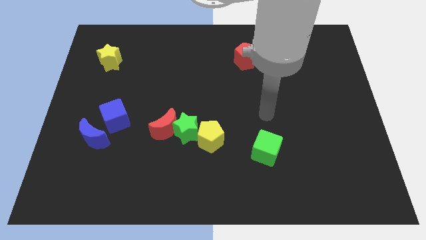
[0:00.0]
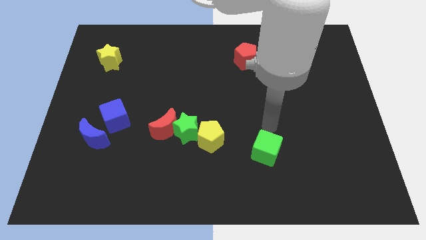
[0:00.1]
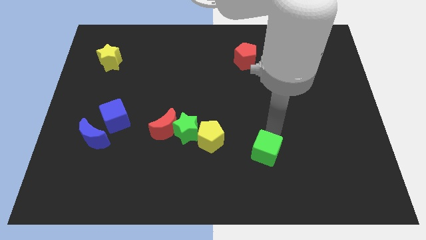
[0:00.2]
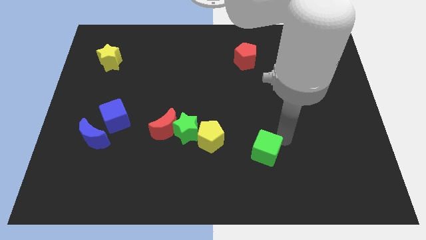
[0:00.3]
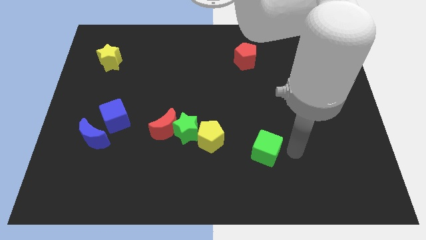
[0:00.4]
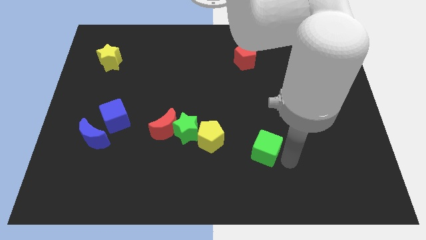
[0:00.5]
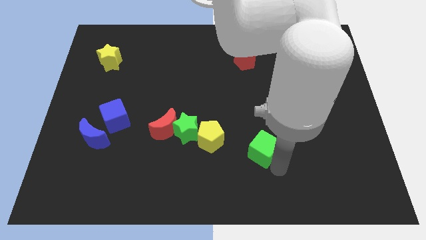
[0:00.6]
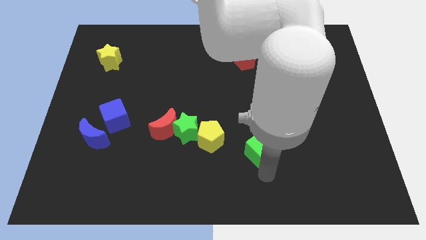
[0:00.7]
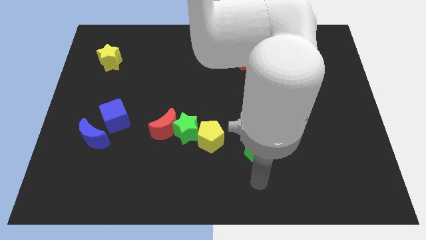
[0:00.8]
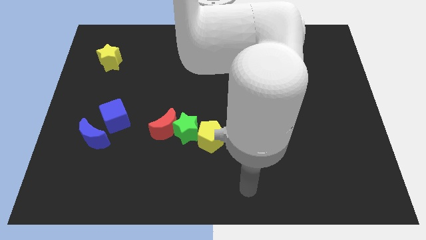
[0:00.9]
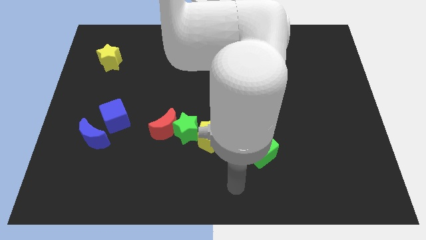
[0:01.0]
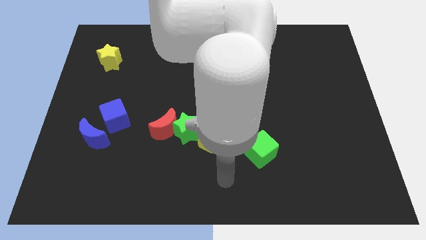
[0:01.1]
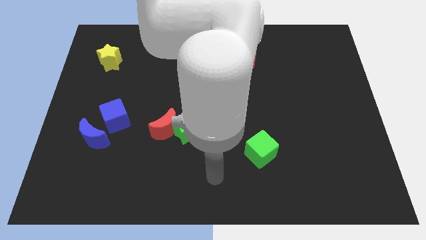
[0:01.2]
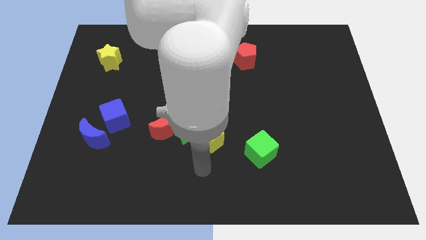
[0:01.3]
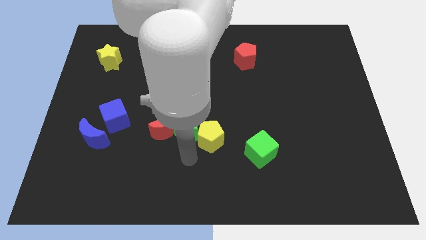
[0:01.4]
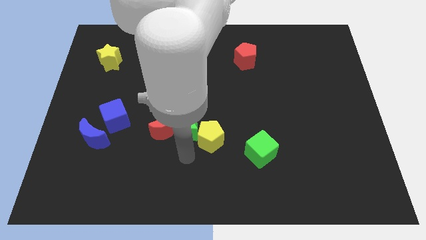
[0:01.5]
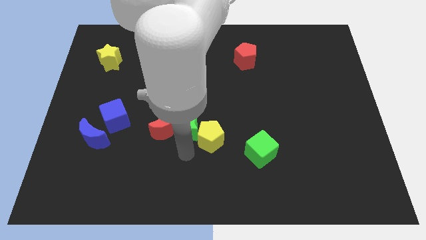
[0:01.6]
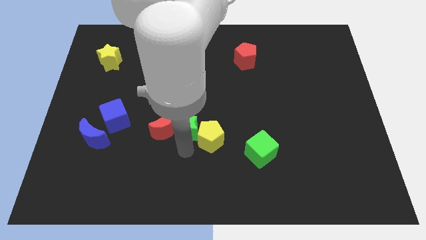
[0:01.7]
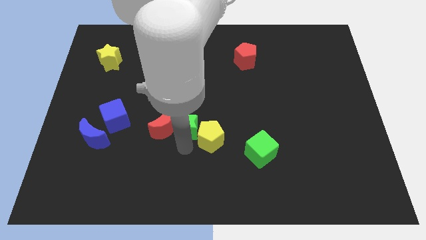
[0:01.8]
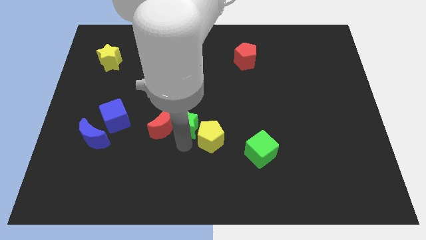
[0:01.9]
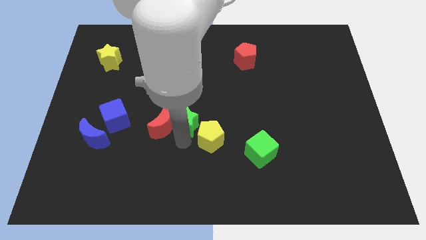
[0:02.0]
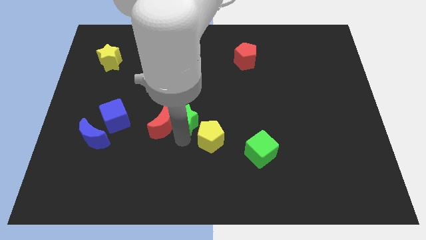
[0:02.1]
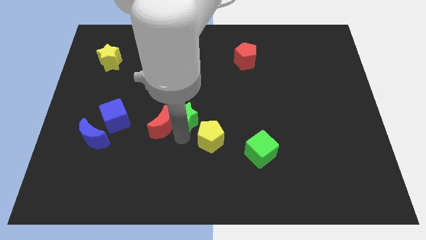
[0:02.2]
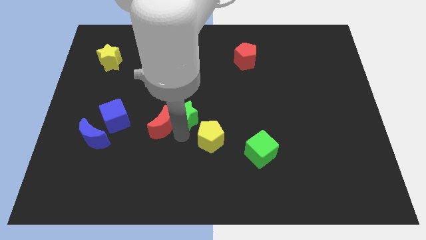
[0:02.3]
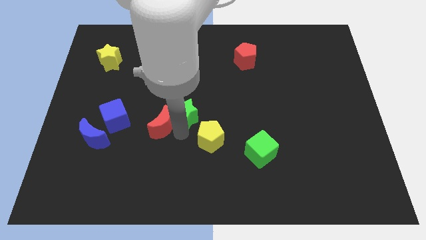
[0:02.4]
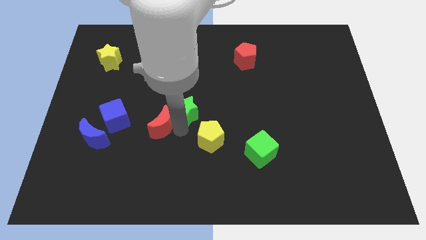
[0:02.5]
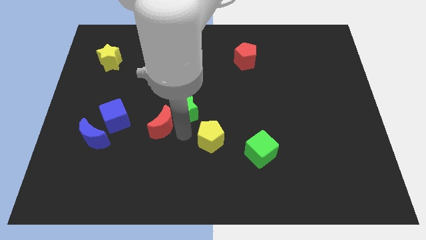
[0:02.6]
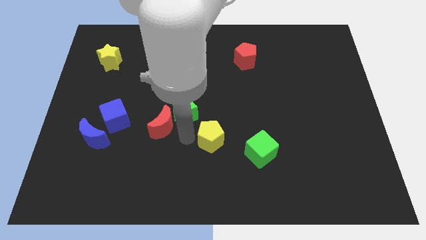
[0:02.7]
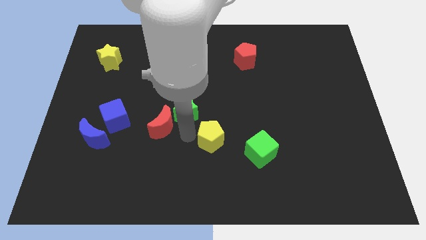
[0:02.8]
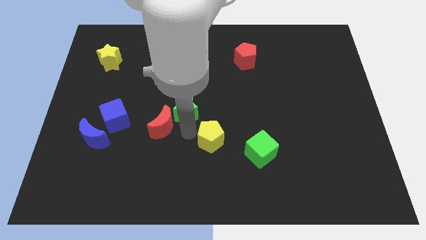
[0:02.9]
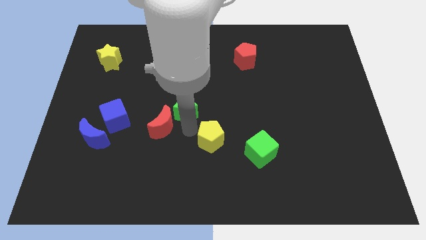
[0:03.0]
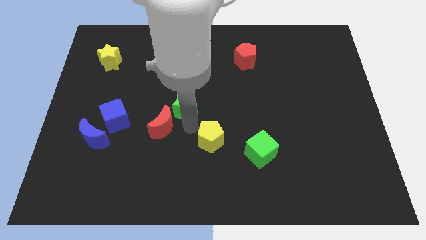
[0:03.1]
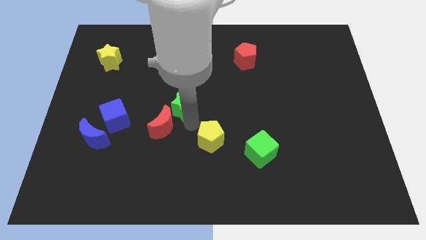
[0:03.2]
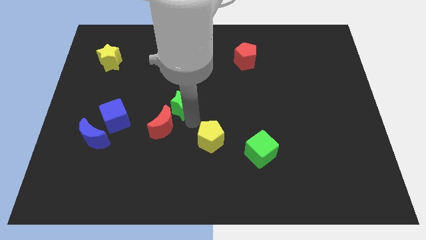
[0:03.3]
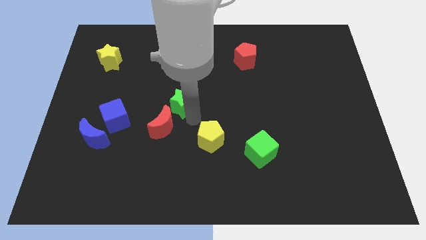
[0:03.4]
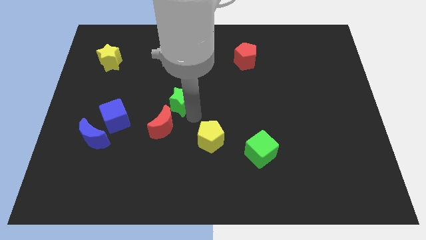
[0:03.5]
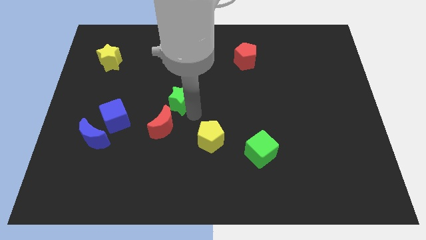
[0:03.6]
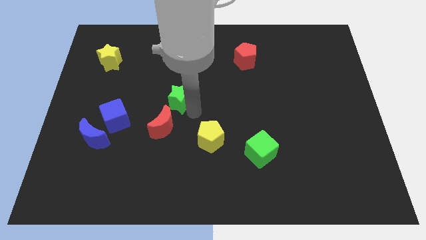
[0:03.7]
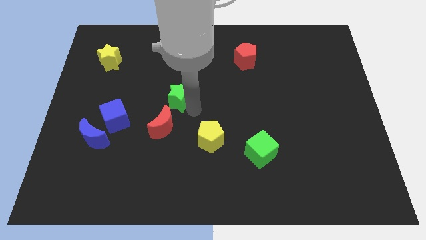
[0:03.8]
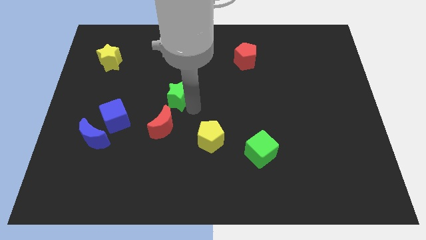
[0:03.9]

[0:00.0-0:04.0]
move the green star away from the red moon and yellow pentagon

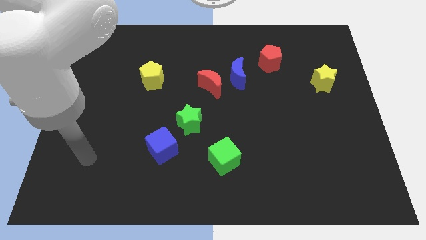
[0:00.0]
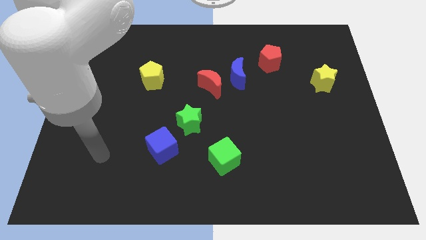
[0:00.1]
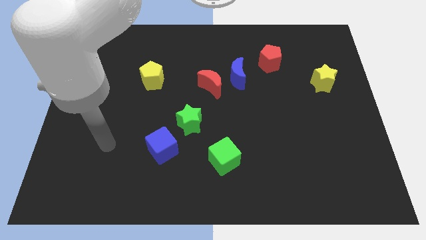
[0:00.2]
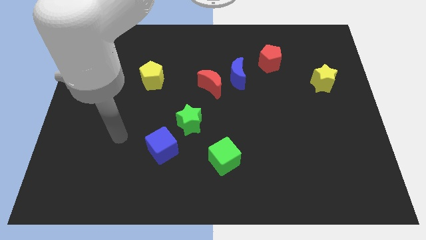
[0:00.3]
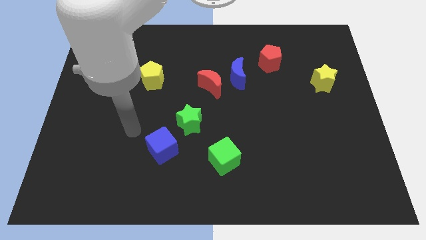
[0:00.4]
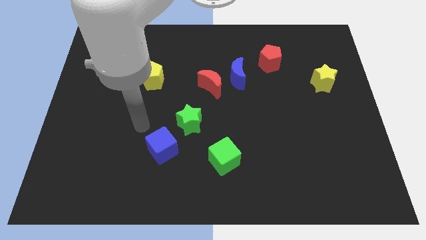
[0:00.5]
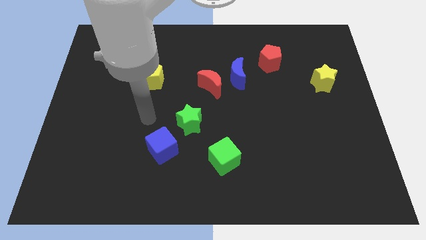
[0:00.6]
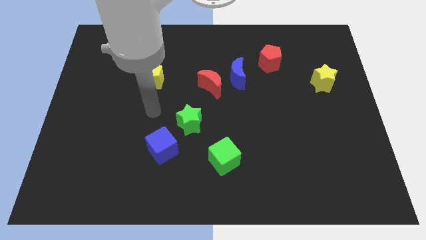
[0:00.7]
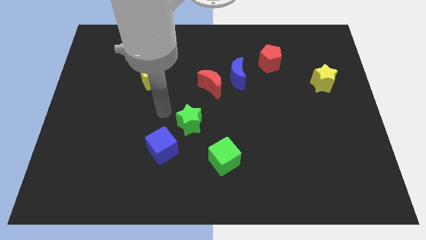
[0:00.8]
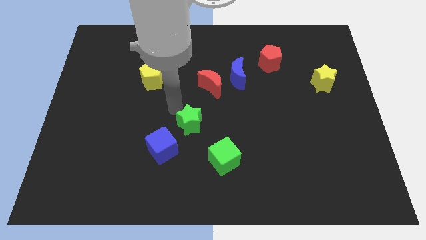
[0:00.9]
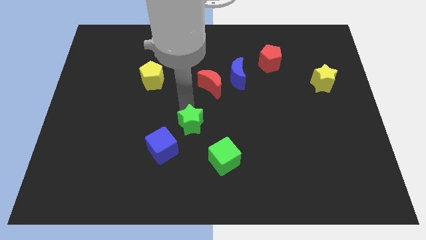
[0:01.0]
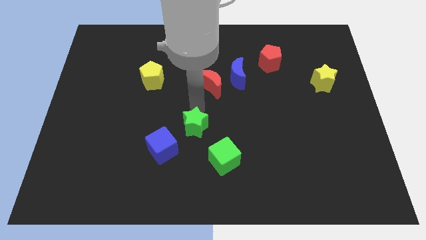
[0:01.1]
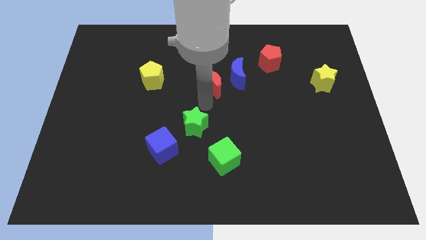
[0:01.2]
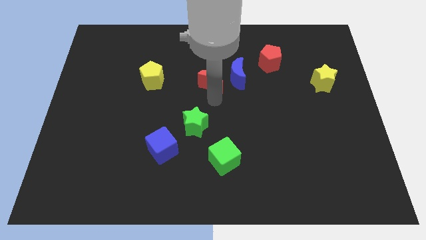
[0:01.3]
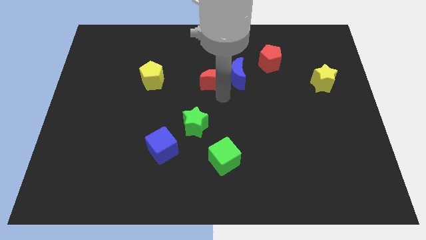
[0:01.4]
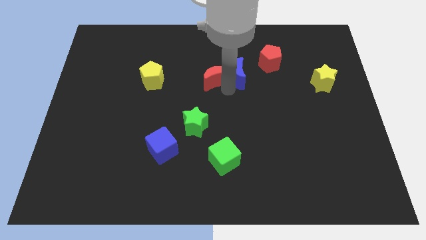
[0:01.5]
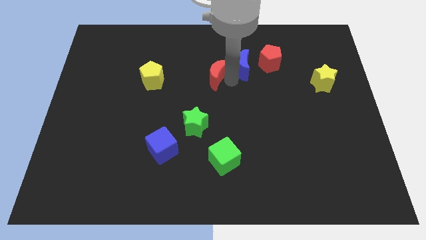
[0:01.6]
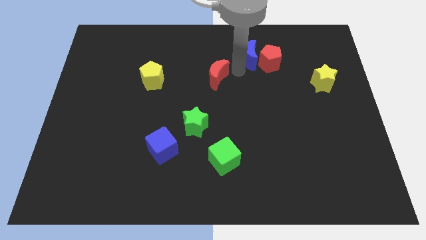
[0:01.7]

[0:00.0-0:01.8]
separate the red moon from the blue moon

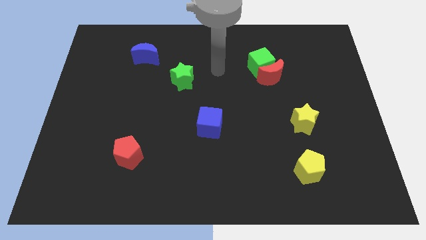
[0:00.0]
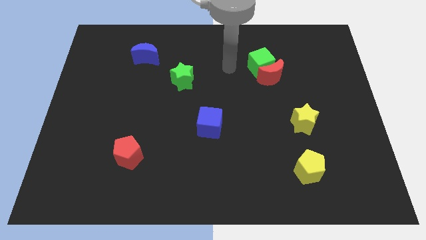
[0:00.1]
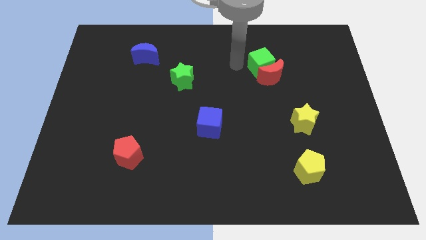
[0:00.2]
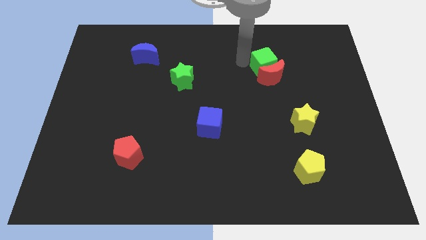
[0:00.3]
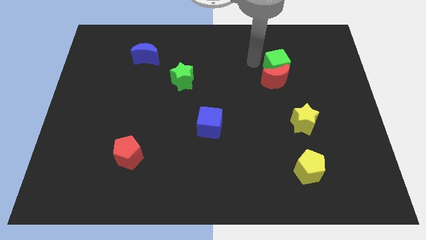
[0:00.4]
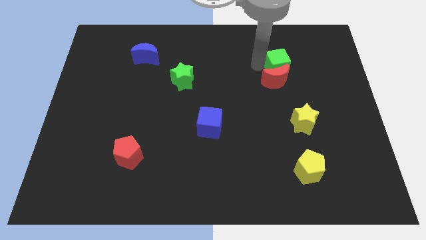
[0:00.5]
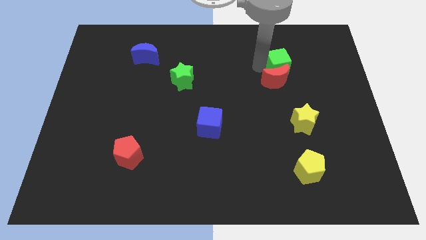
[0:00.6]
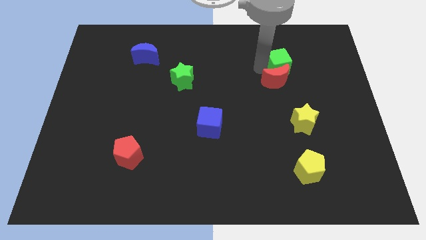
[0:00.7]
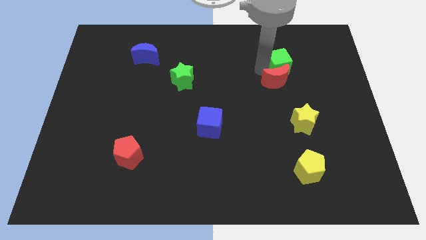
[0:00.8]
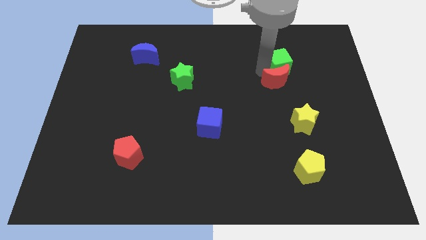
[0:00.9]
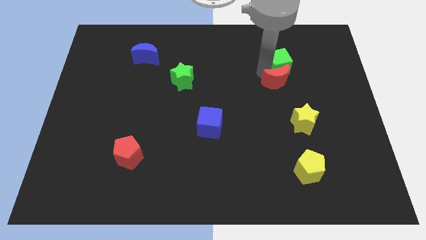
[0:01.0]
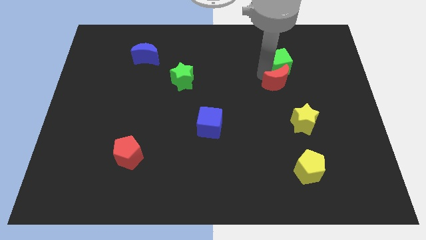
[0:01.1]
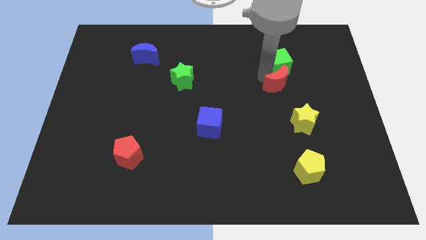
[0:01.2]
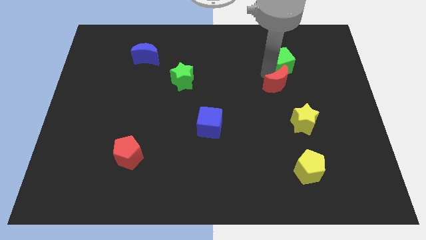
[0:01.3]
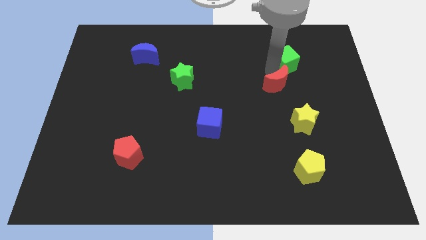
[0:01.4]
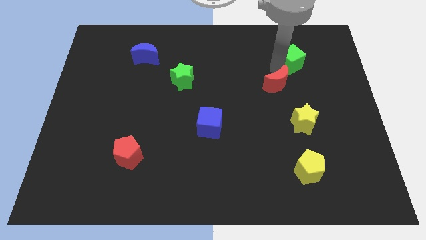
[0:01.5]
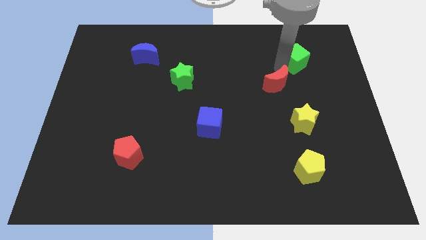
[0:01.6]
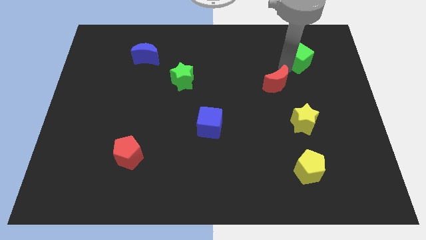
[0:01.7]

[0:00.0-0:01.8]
pull the red moon apart from the green cube

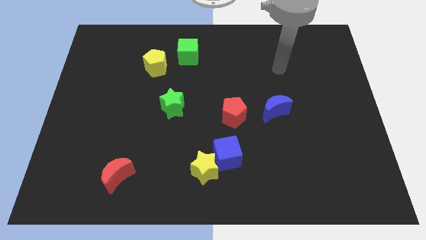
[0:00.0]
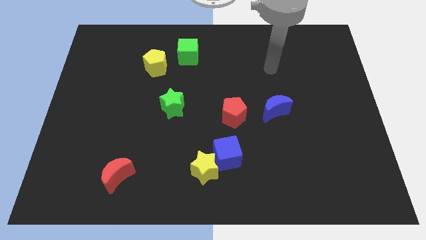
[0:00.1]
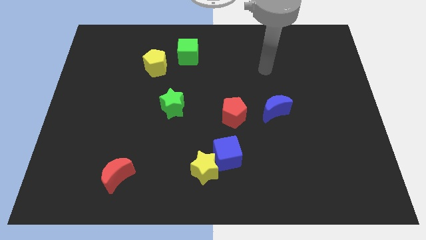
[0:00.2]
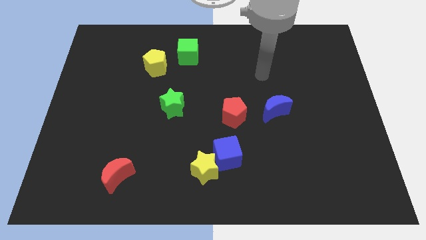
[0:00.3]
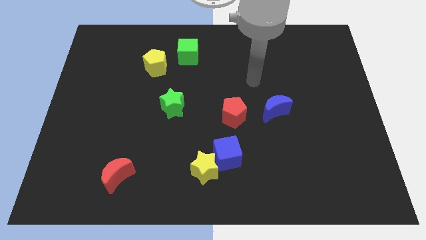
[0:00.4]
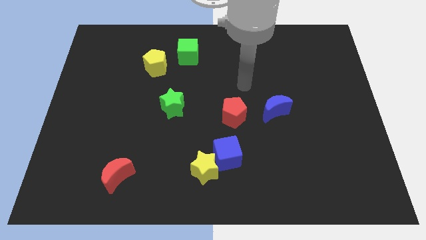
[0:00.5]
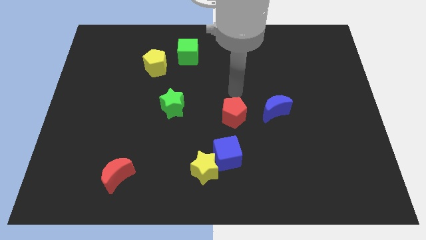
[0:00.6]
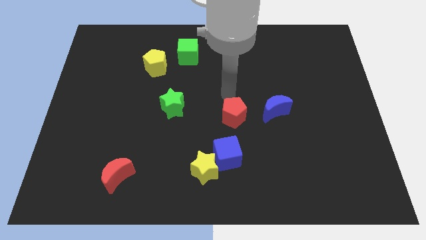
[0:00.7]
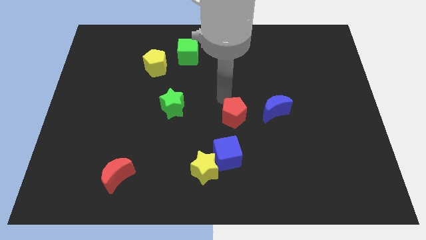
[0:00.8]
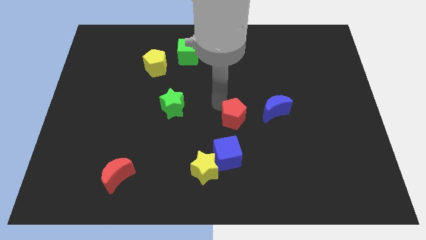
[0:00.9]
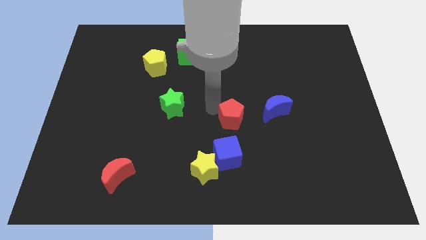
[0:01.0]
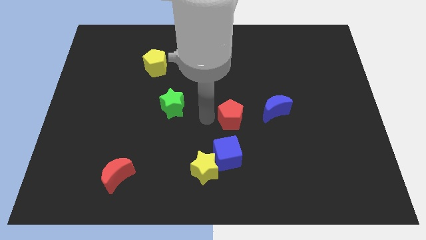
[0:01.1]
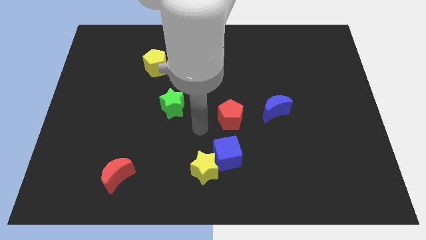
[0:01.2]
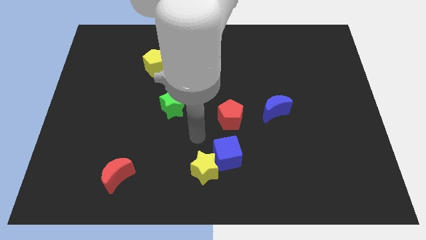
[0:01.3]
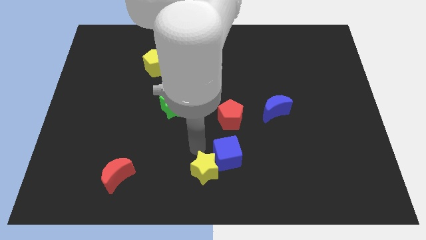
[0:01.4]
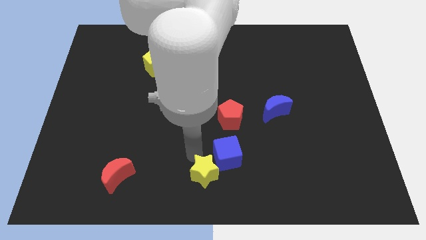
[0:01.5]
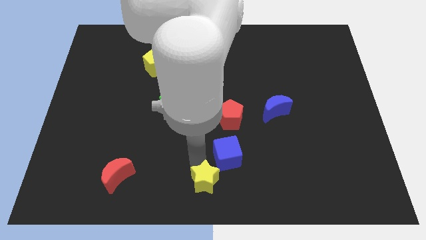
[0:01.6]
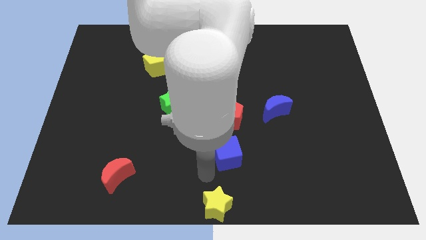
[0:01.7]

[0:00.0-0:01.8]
pull the blue cube apart from the yellow star
